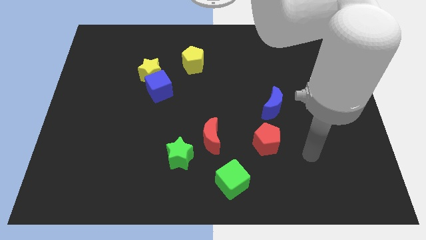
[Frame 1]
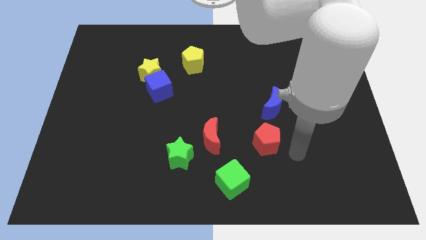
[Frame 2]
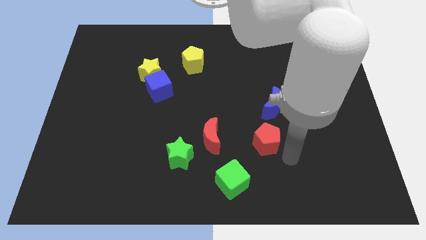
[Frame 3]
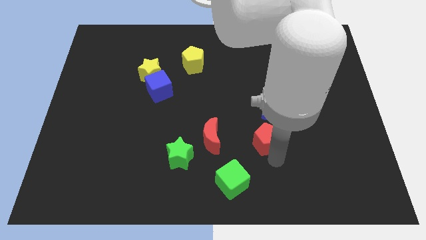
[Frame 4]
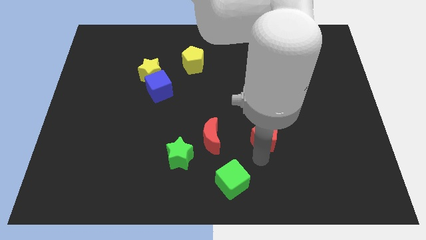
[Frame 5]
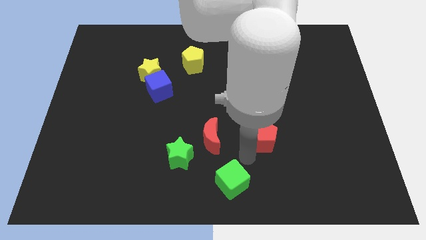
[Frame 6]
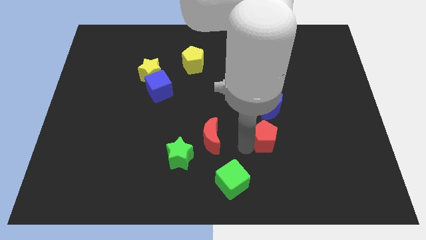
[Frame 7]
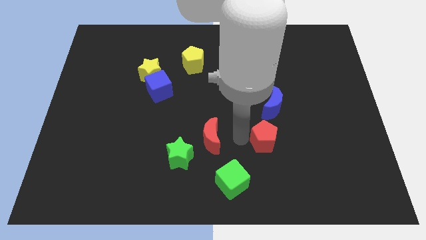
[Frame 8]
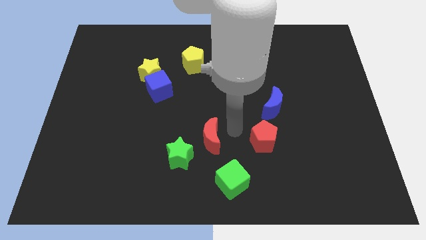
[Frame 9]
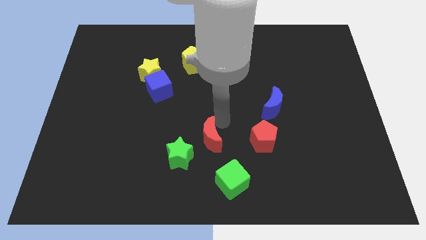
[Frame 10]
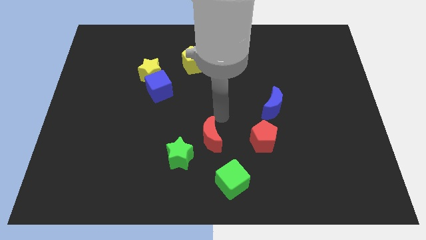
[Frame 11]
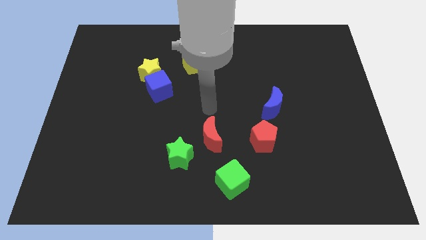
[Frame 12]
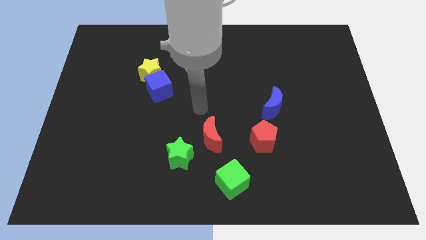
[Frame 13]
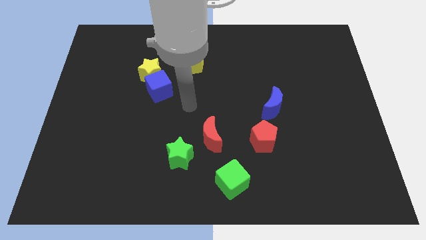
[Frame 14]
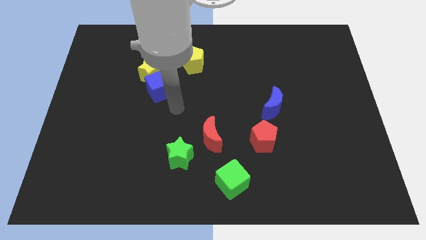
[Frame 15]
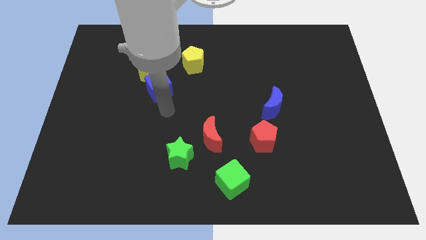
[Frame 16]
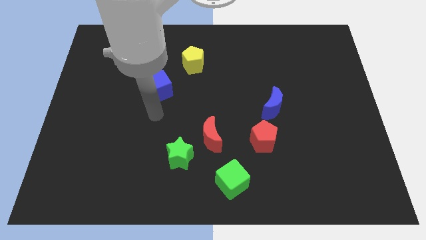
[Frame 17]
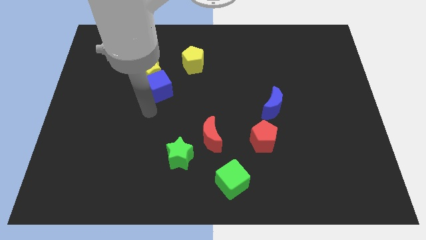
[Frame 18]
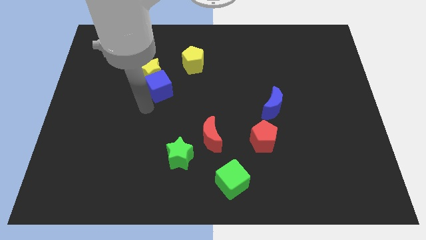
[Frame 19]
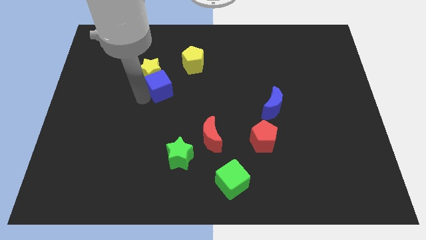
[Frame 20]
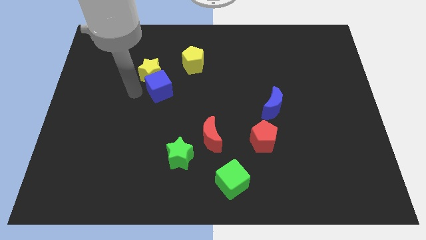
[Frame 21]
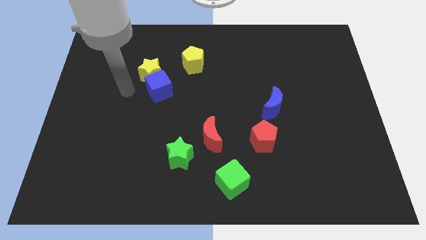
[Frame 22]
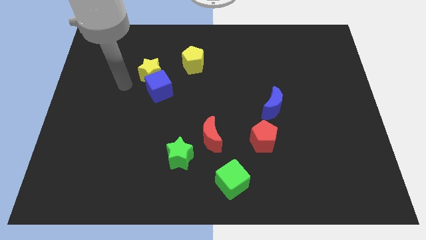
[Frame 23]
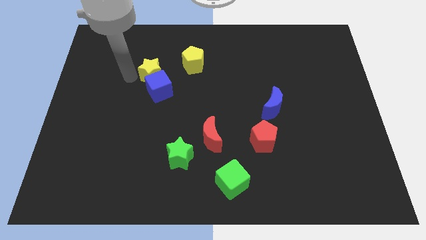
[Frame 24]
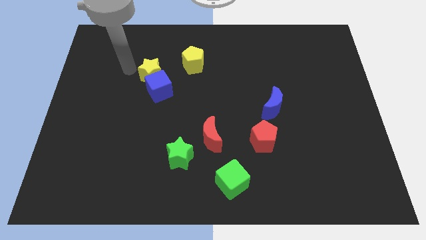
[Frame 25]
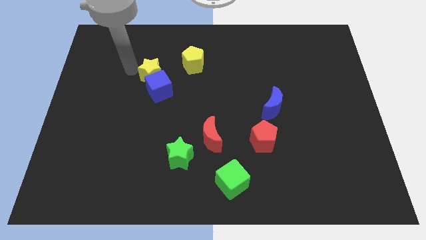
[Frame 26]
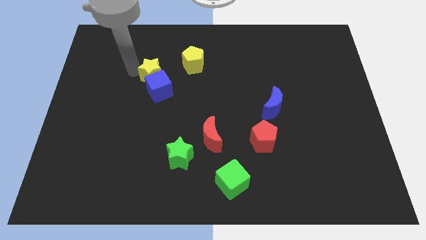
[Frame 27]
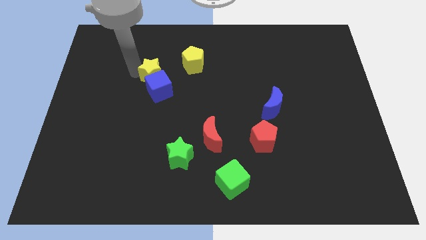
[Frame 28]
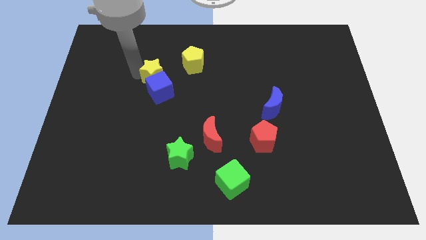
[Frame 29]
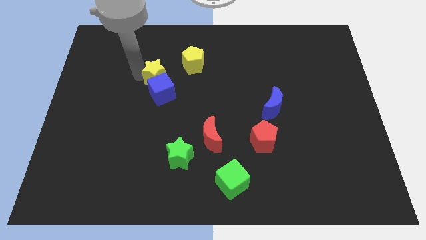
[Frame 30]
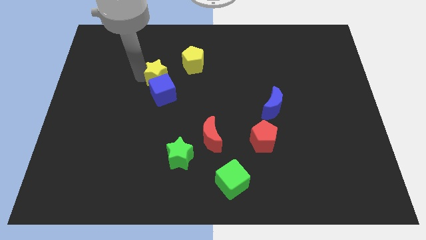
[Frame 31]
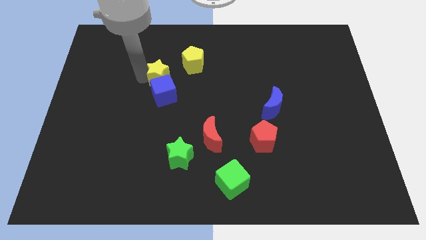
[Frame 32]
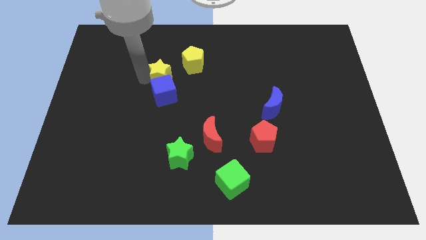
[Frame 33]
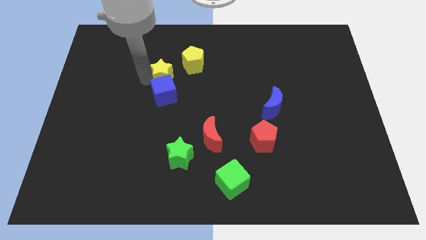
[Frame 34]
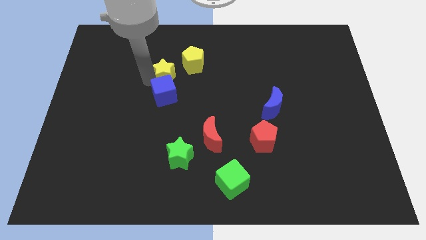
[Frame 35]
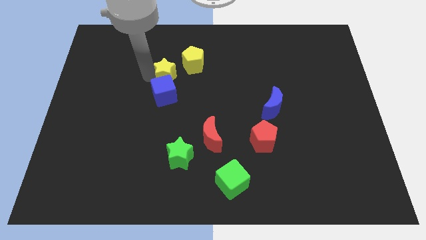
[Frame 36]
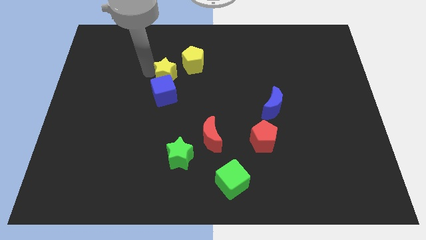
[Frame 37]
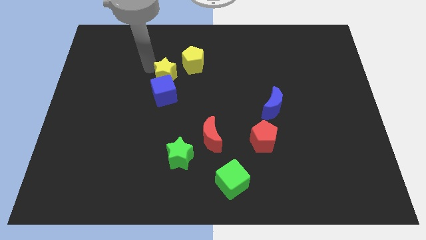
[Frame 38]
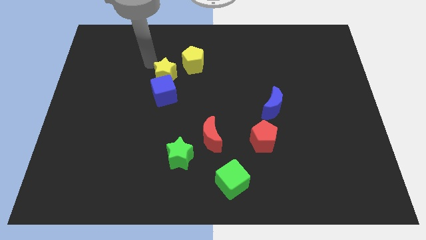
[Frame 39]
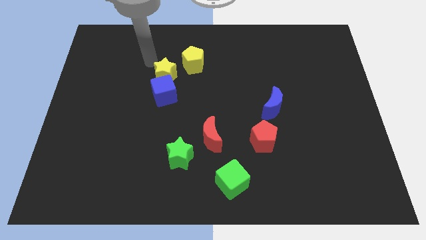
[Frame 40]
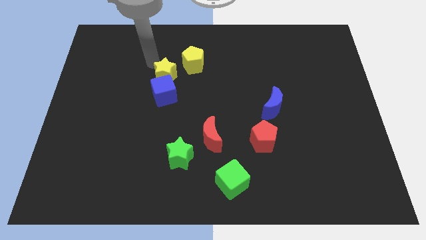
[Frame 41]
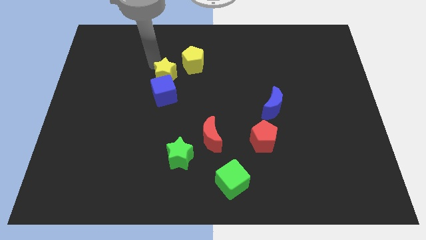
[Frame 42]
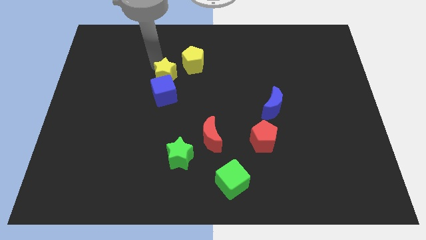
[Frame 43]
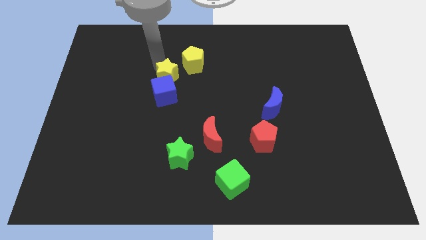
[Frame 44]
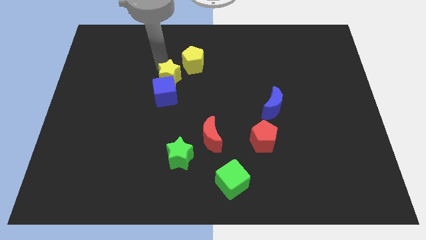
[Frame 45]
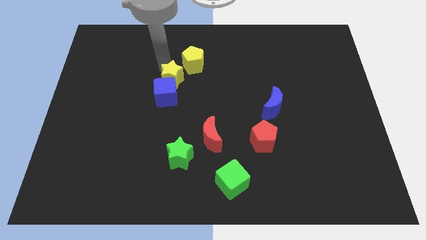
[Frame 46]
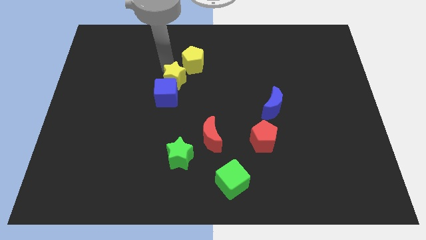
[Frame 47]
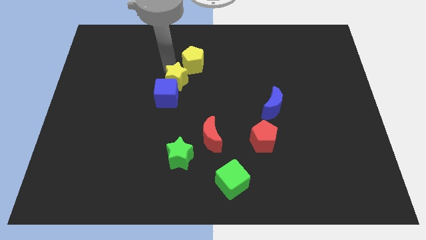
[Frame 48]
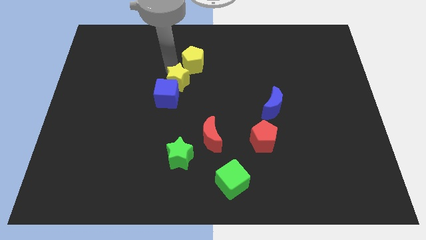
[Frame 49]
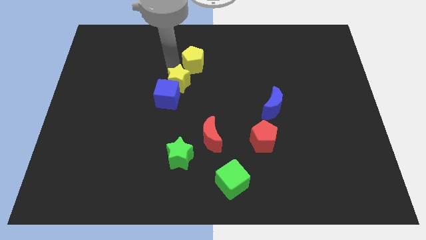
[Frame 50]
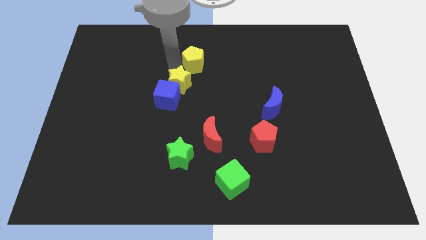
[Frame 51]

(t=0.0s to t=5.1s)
push the yellow star a bit downwards and to the right diagonally

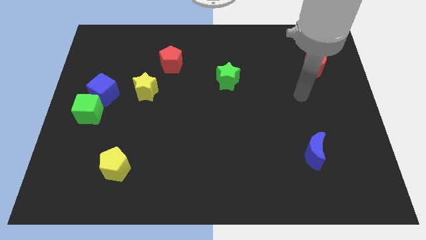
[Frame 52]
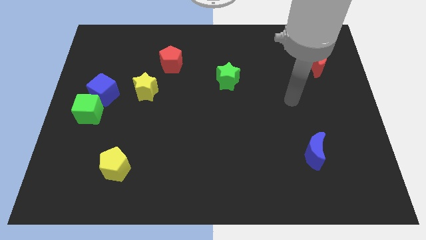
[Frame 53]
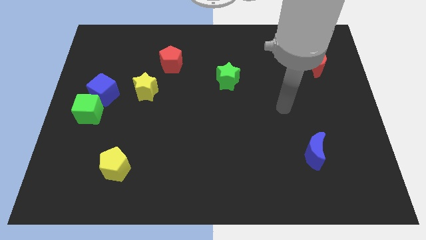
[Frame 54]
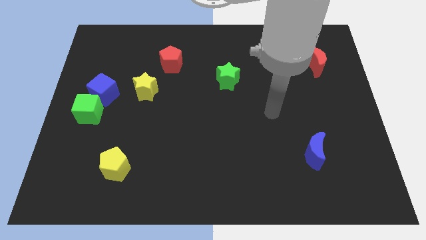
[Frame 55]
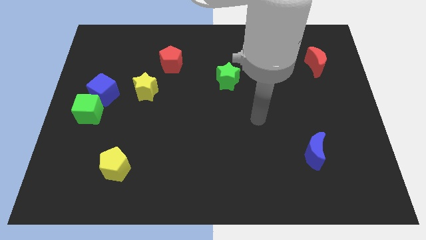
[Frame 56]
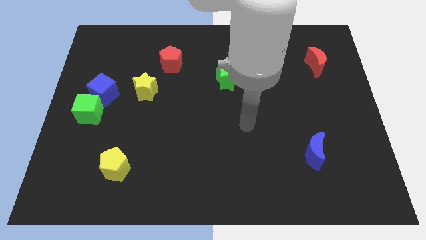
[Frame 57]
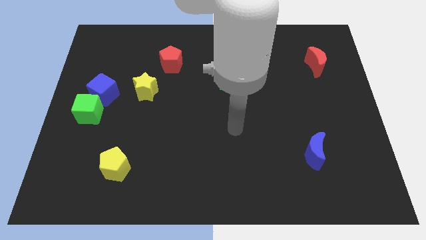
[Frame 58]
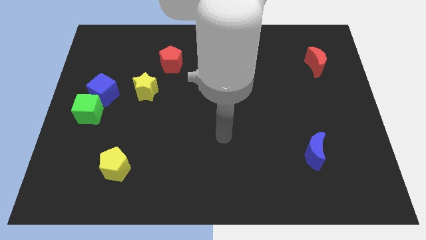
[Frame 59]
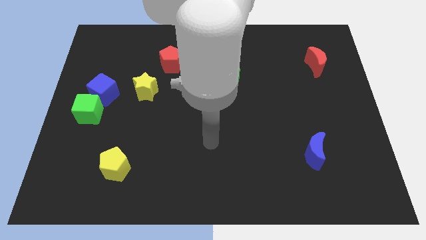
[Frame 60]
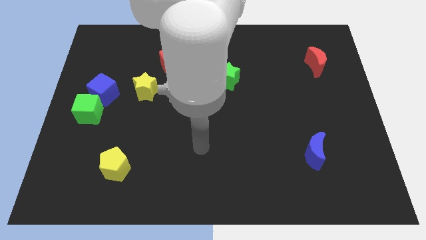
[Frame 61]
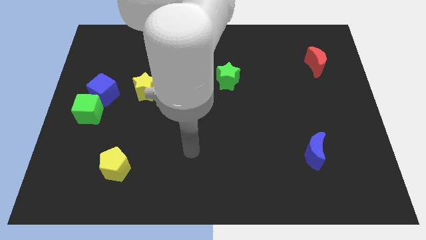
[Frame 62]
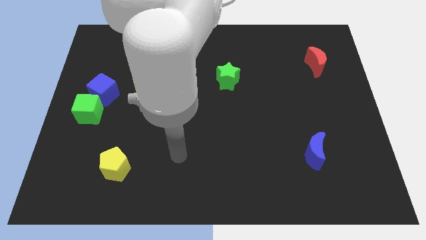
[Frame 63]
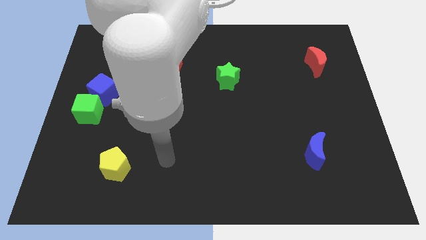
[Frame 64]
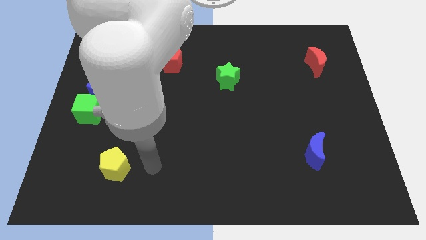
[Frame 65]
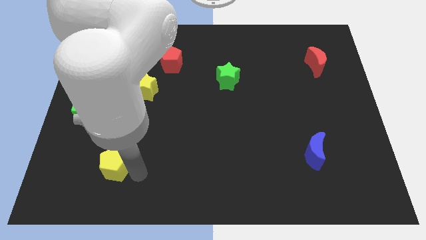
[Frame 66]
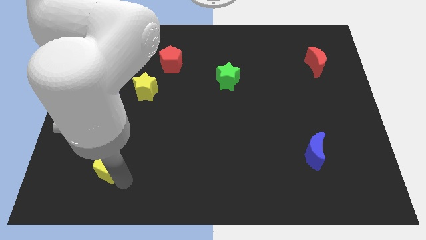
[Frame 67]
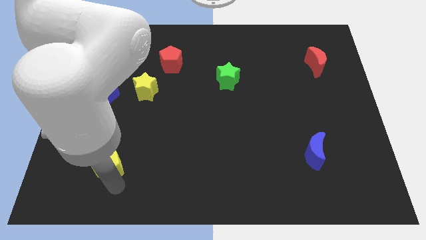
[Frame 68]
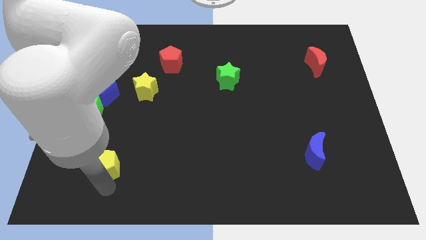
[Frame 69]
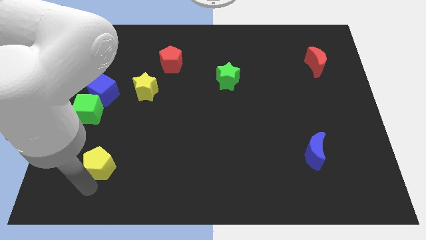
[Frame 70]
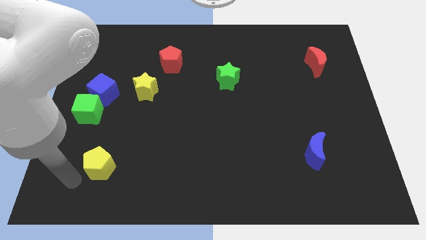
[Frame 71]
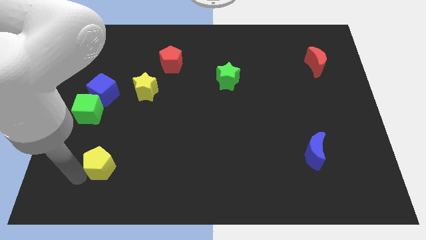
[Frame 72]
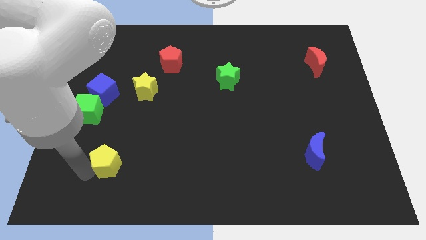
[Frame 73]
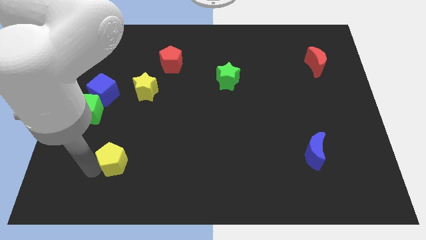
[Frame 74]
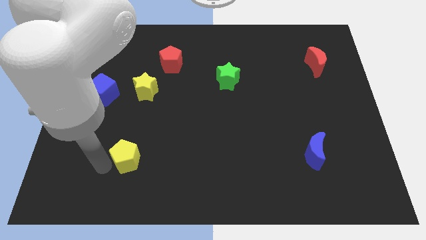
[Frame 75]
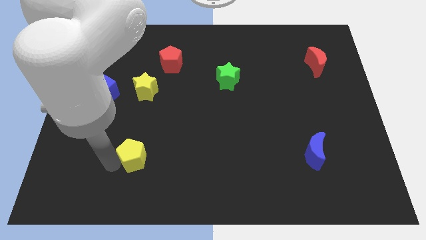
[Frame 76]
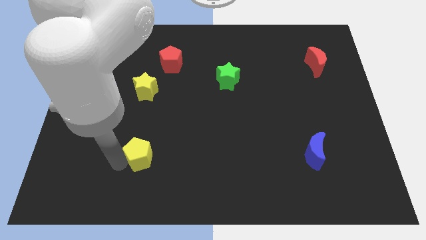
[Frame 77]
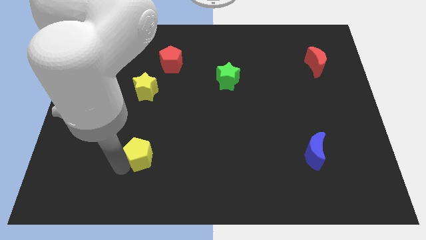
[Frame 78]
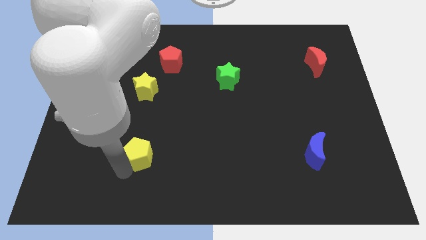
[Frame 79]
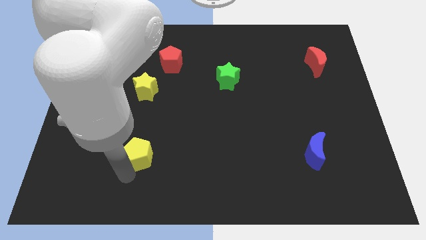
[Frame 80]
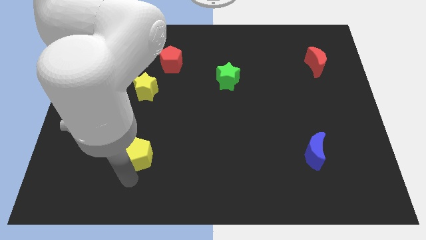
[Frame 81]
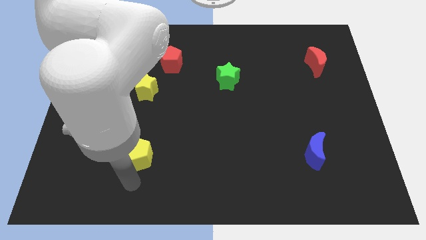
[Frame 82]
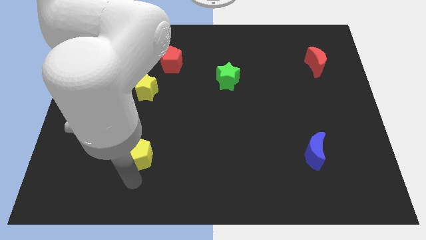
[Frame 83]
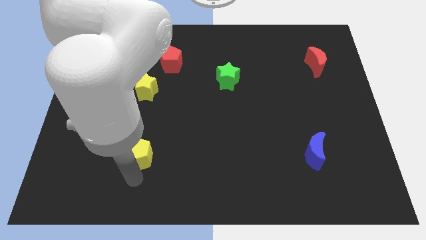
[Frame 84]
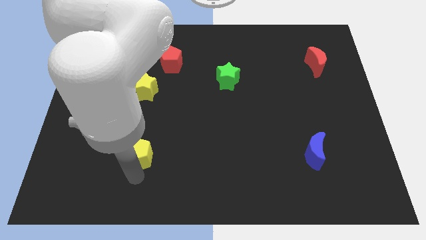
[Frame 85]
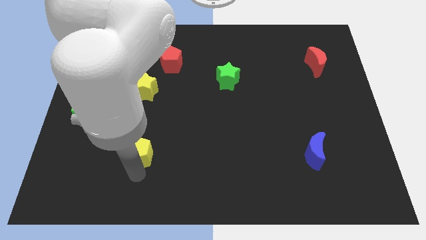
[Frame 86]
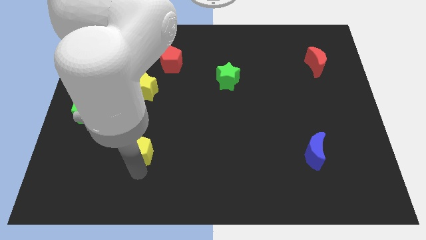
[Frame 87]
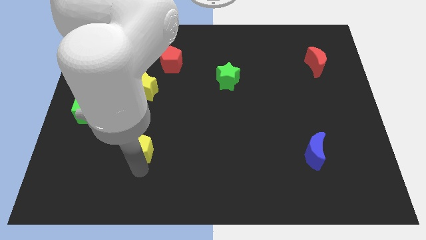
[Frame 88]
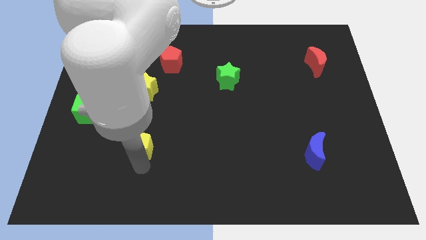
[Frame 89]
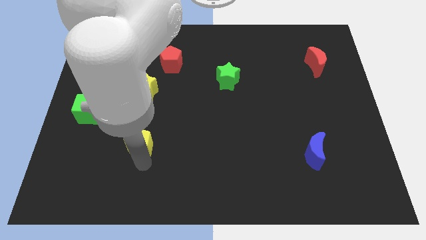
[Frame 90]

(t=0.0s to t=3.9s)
push the yellow pentagon a little upwards and to the right diagonally
